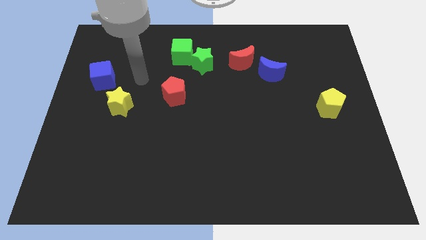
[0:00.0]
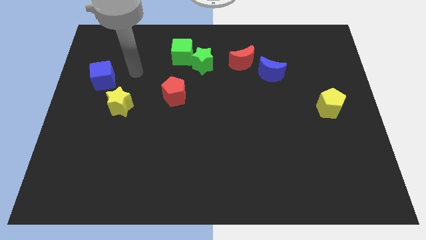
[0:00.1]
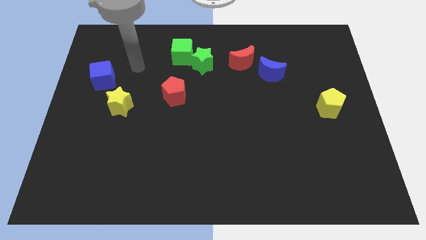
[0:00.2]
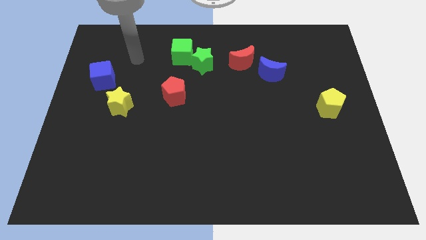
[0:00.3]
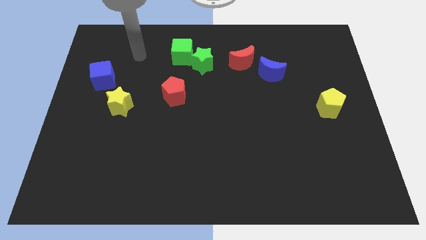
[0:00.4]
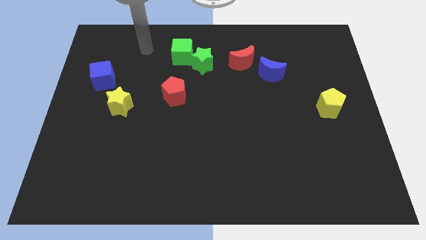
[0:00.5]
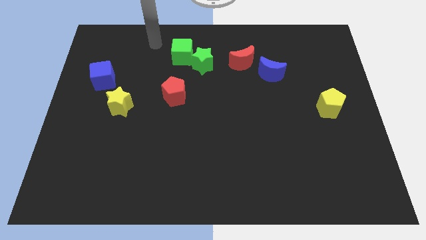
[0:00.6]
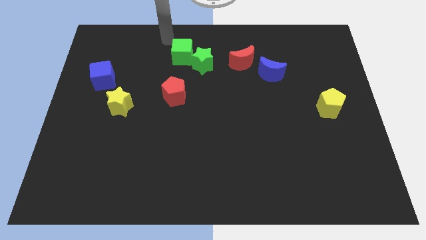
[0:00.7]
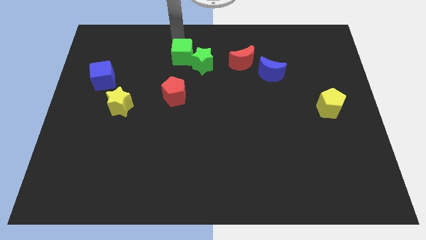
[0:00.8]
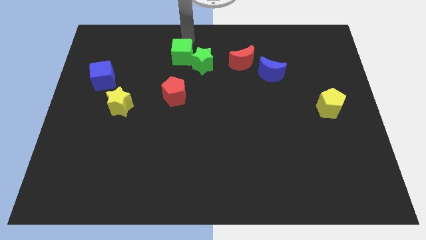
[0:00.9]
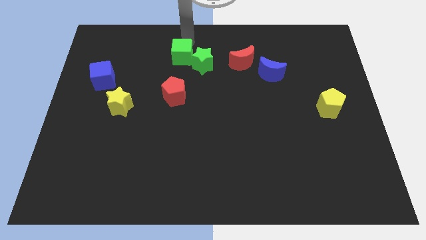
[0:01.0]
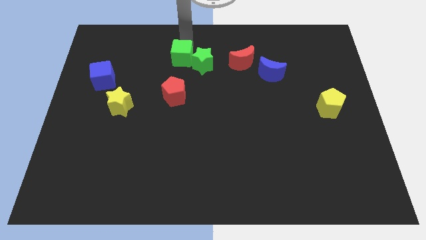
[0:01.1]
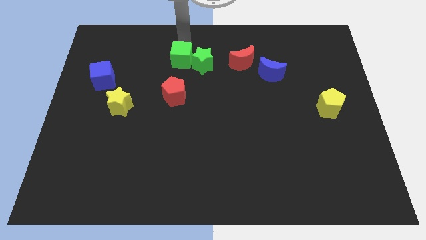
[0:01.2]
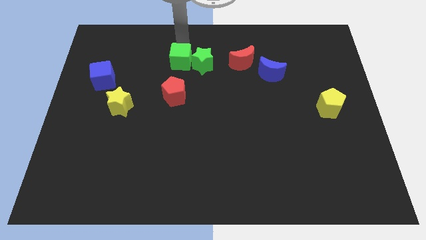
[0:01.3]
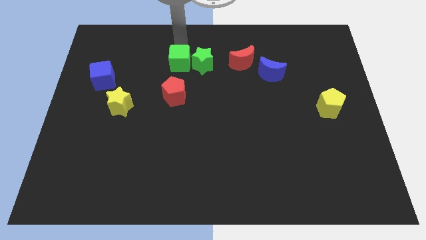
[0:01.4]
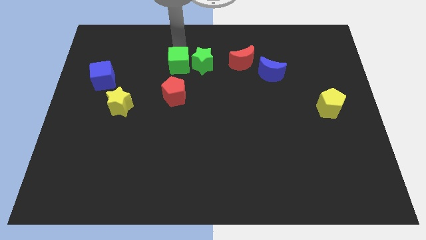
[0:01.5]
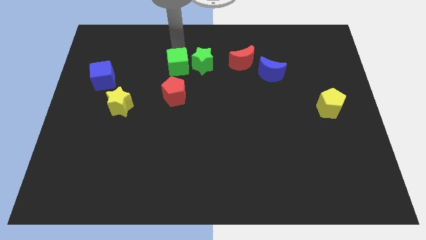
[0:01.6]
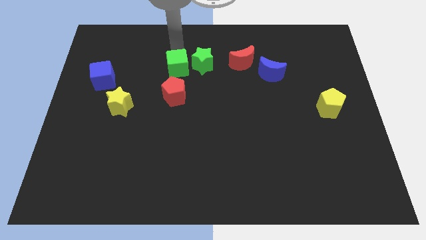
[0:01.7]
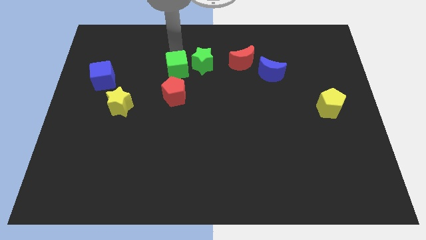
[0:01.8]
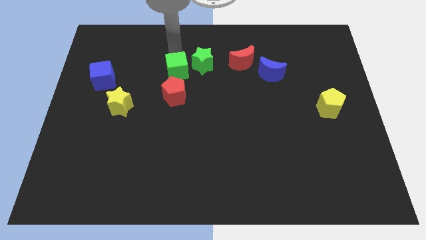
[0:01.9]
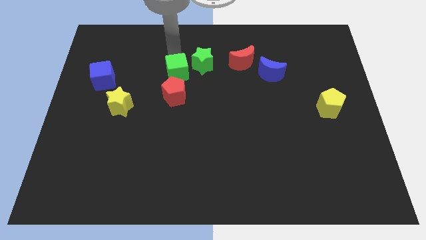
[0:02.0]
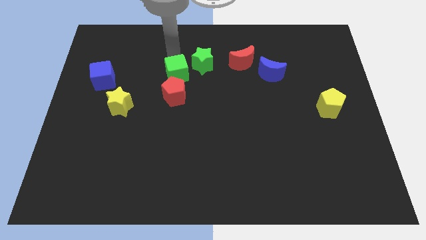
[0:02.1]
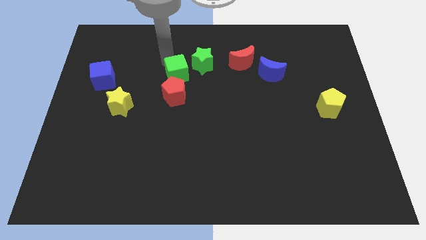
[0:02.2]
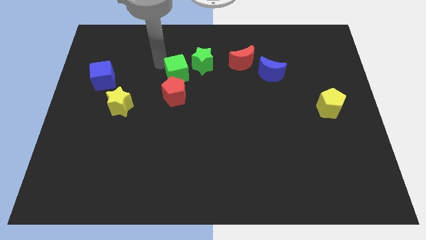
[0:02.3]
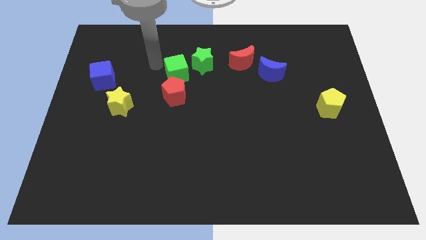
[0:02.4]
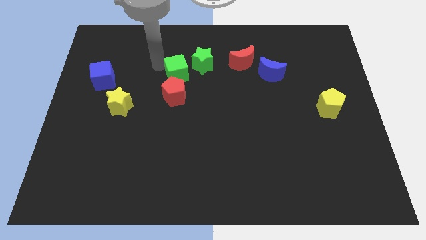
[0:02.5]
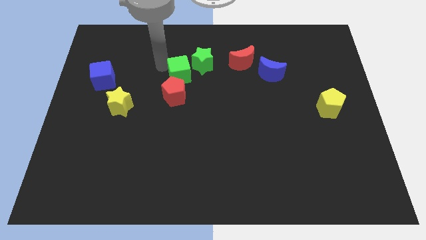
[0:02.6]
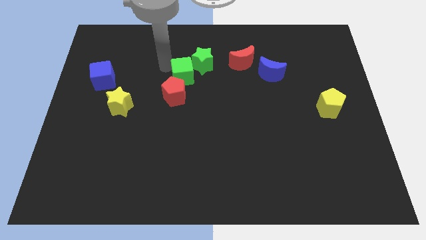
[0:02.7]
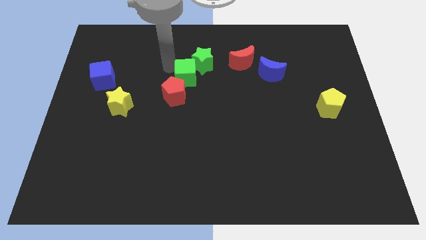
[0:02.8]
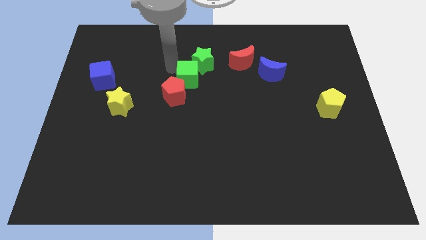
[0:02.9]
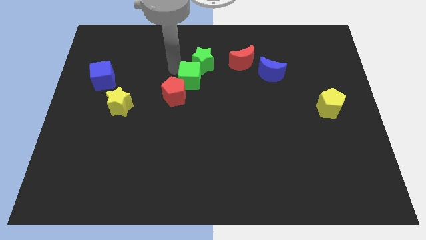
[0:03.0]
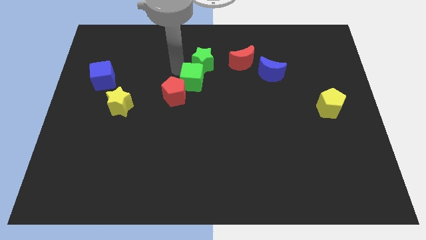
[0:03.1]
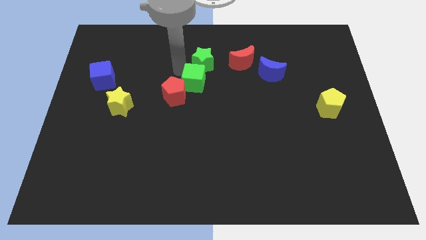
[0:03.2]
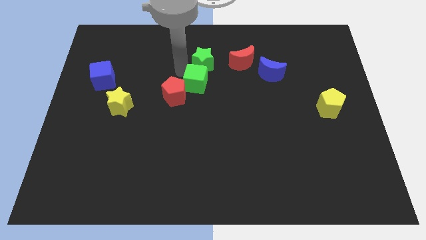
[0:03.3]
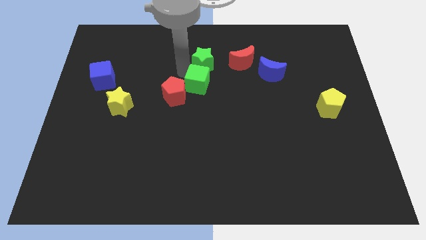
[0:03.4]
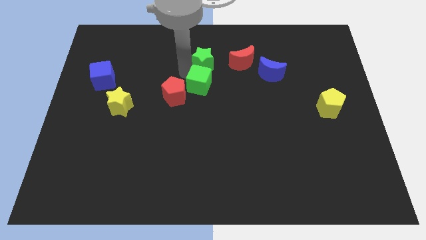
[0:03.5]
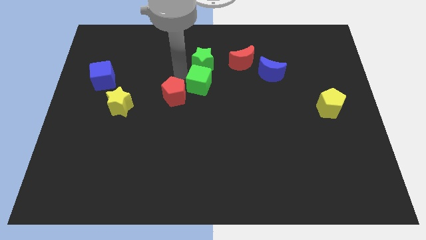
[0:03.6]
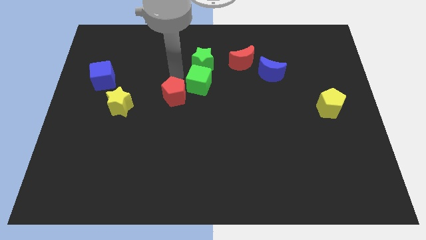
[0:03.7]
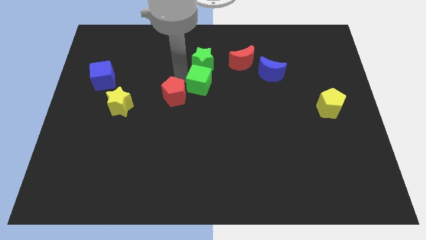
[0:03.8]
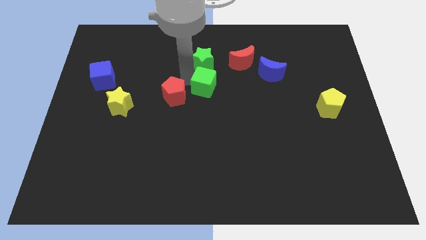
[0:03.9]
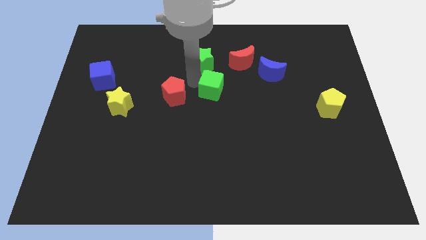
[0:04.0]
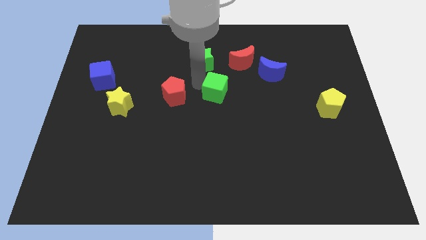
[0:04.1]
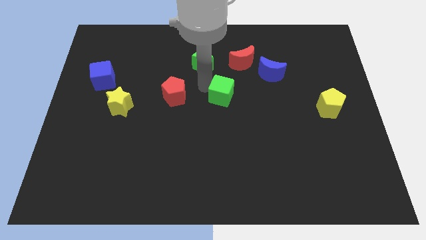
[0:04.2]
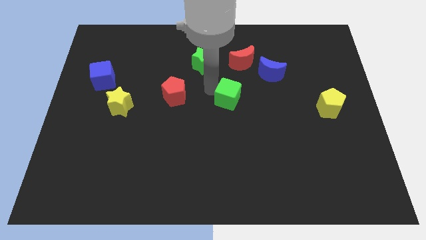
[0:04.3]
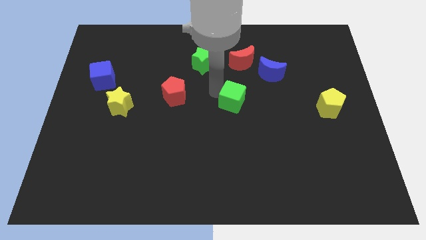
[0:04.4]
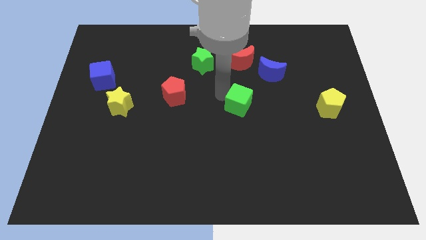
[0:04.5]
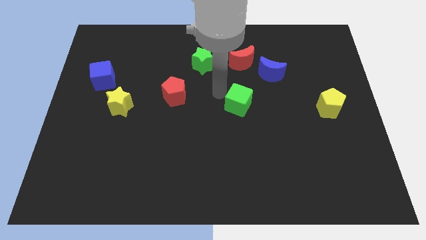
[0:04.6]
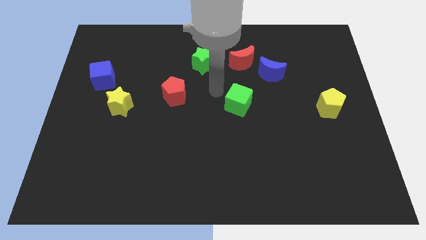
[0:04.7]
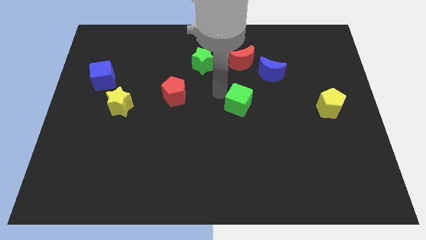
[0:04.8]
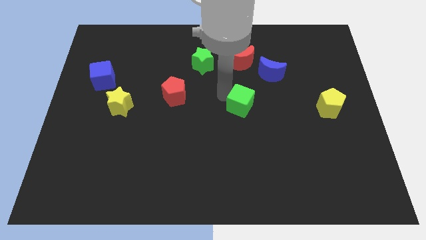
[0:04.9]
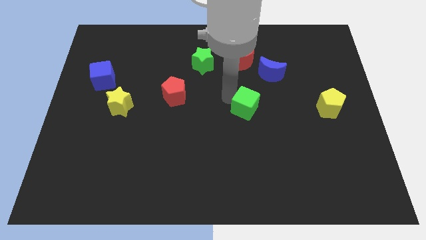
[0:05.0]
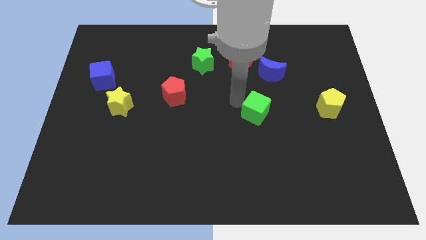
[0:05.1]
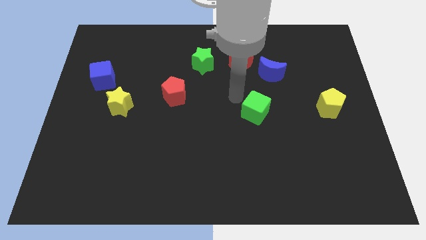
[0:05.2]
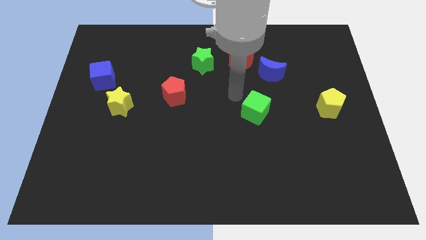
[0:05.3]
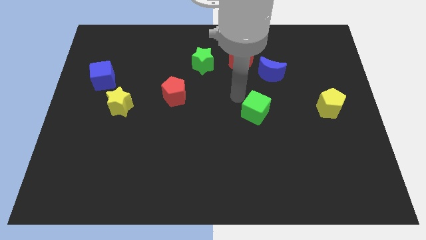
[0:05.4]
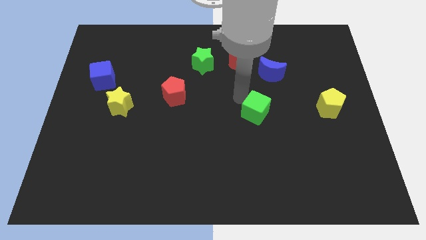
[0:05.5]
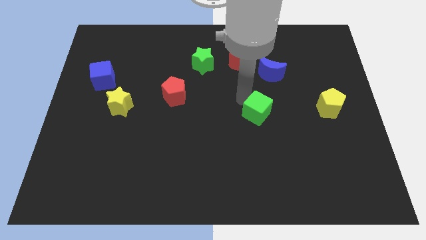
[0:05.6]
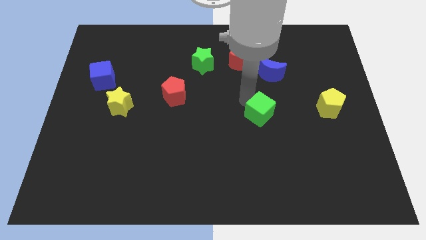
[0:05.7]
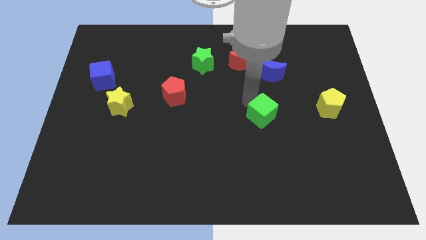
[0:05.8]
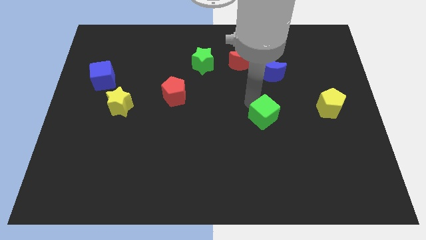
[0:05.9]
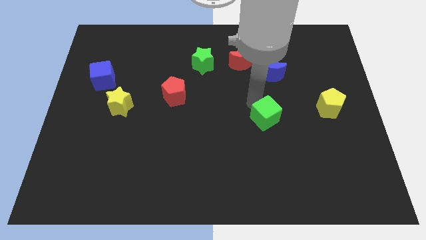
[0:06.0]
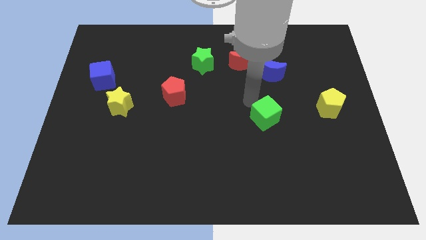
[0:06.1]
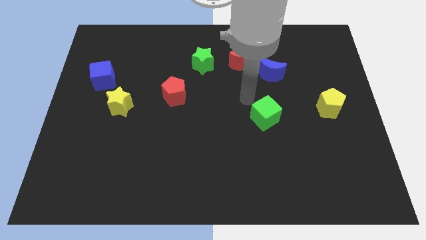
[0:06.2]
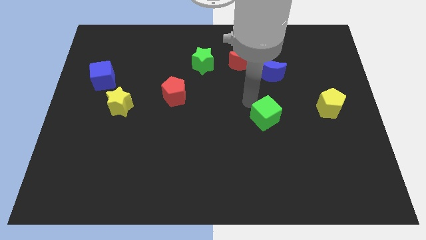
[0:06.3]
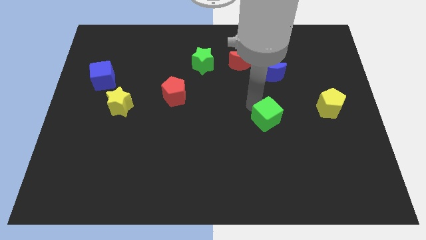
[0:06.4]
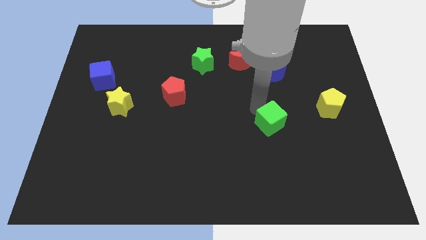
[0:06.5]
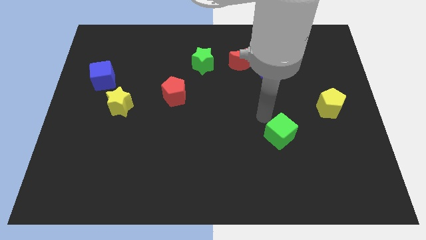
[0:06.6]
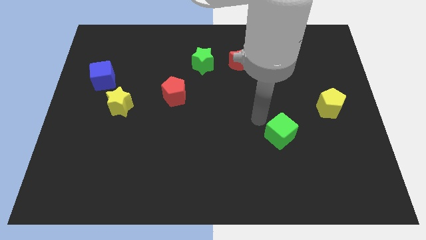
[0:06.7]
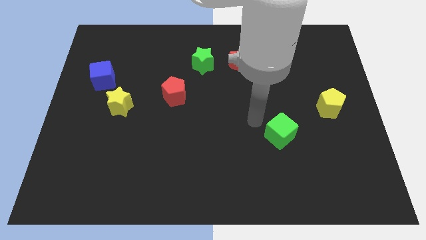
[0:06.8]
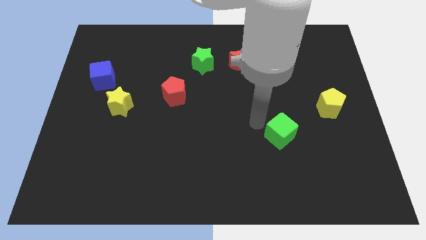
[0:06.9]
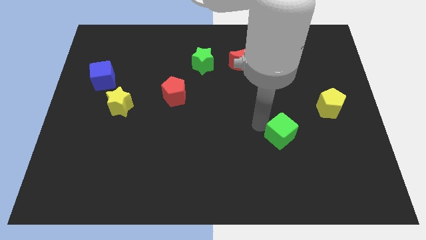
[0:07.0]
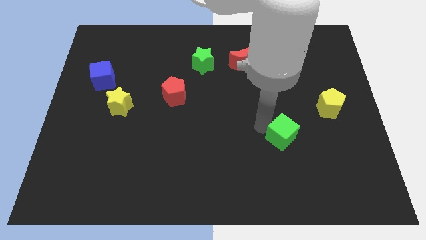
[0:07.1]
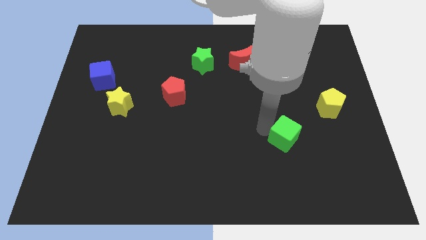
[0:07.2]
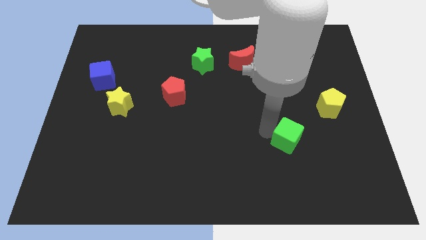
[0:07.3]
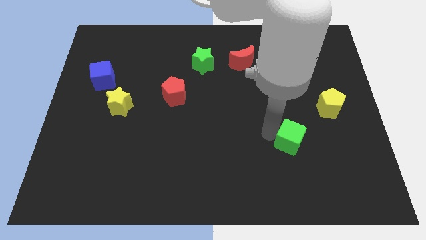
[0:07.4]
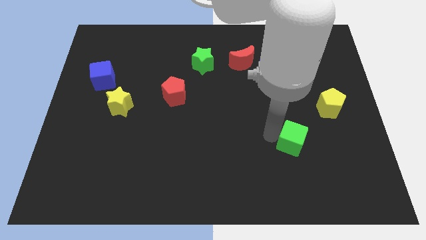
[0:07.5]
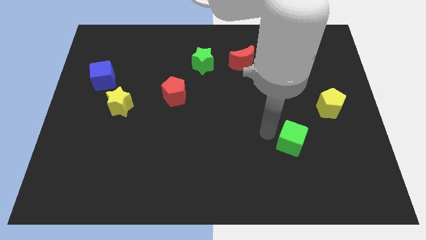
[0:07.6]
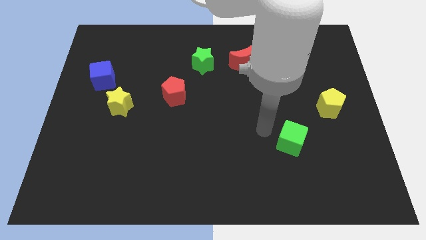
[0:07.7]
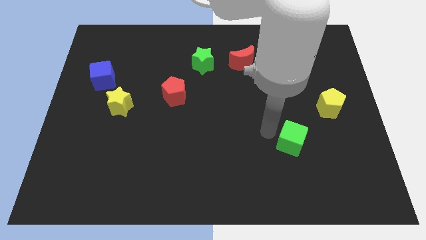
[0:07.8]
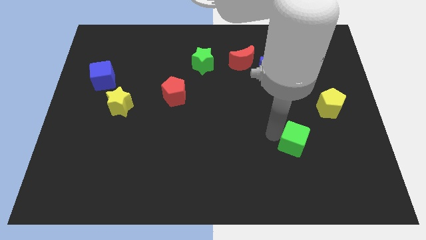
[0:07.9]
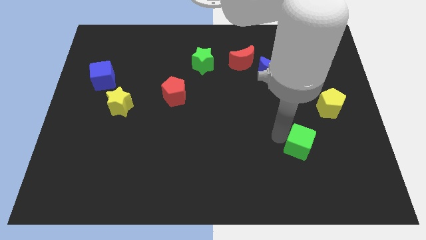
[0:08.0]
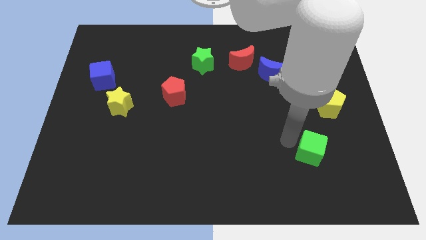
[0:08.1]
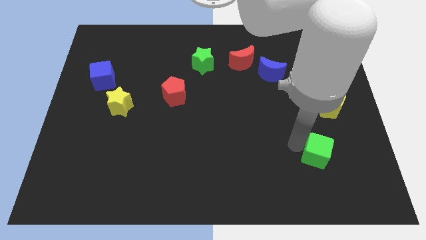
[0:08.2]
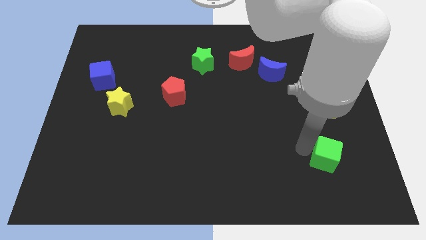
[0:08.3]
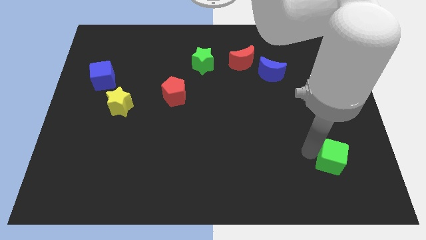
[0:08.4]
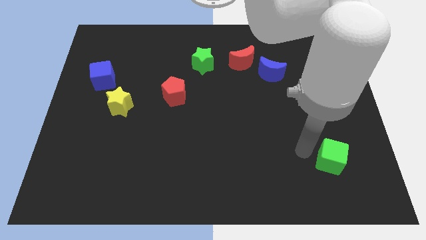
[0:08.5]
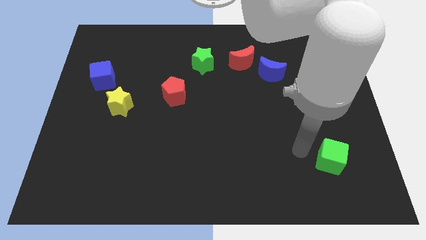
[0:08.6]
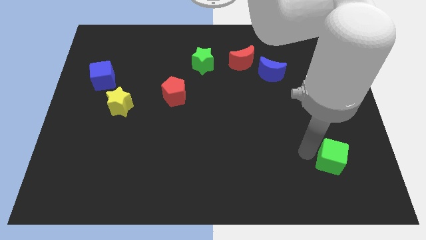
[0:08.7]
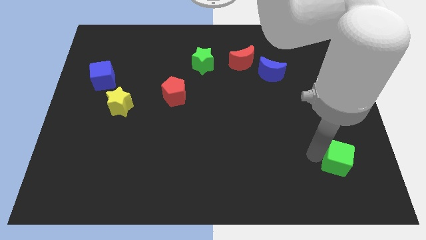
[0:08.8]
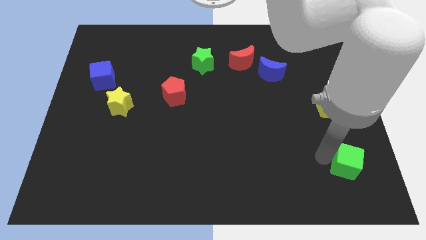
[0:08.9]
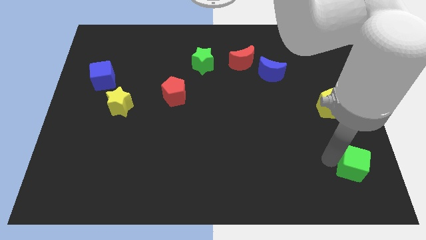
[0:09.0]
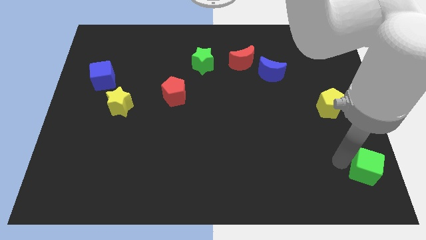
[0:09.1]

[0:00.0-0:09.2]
move the green cube to the lower right corner
